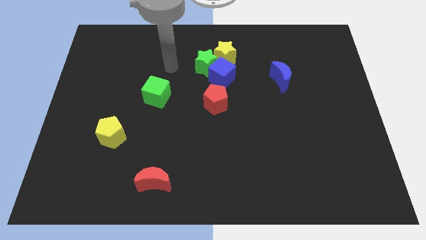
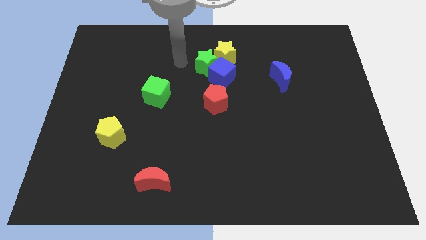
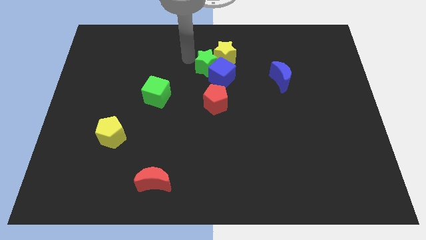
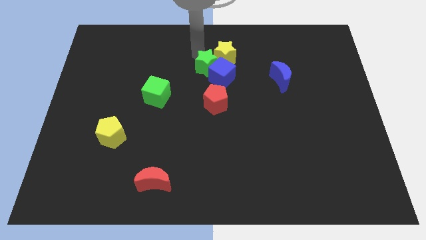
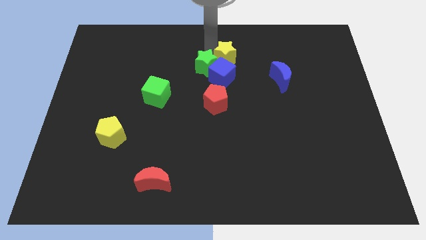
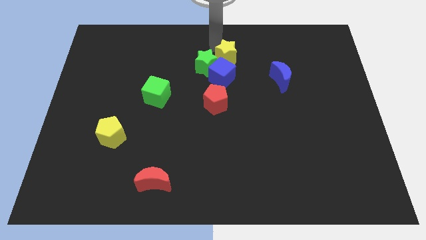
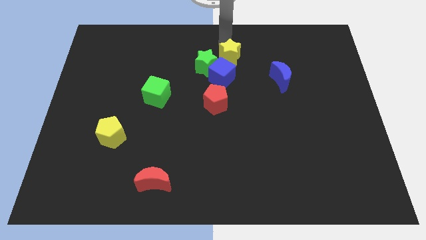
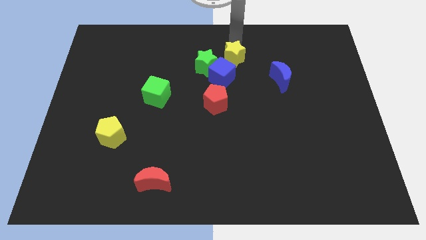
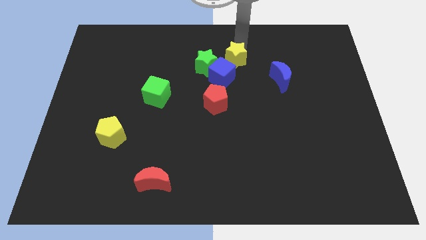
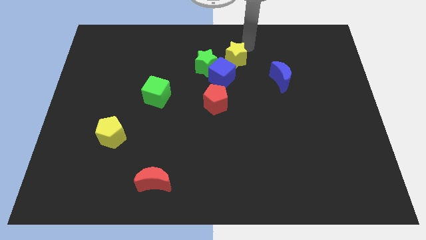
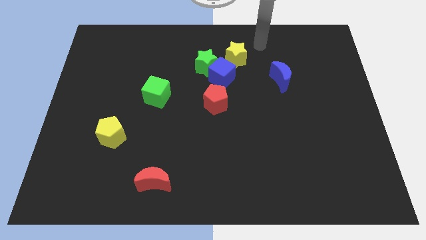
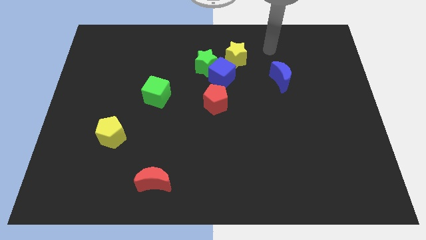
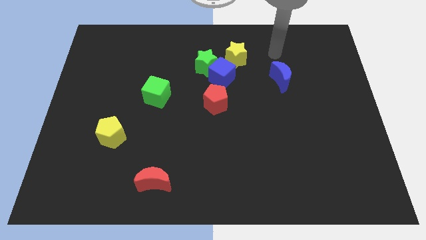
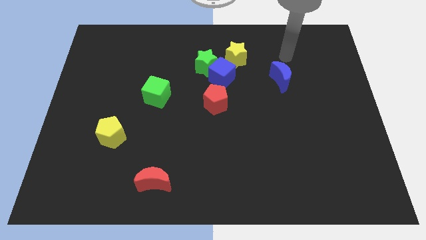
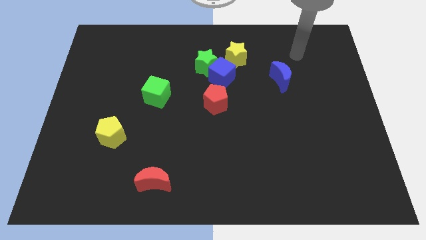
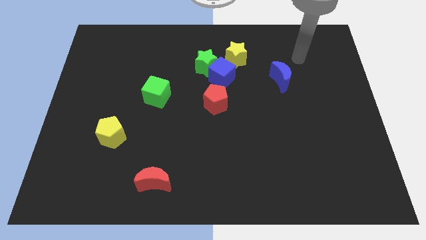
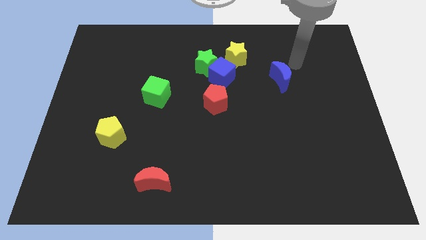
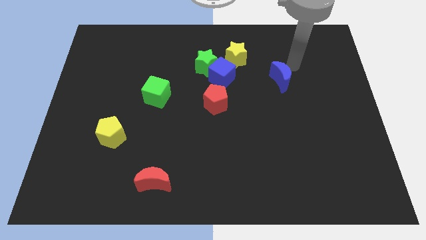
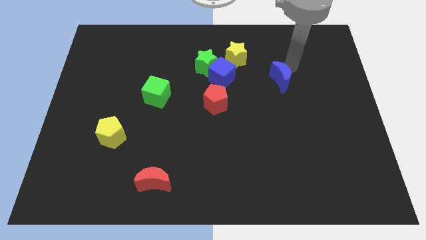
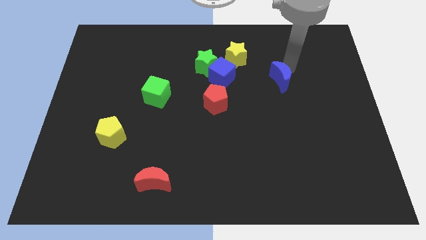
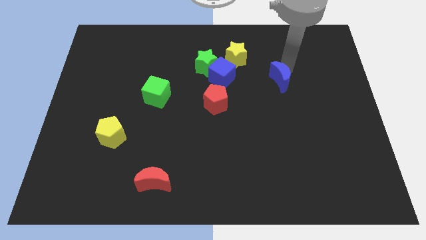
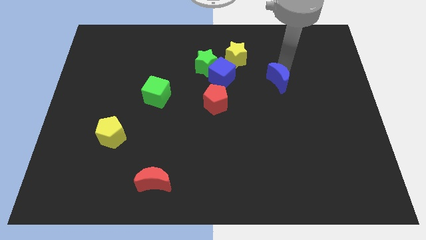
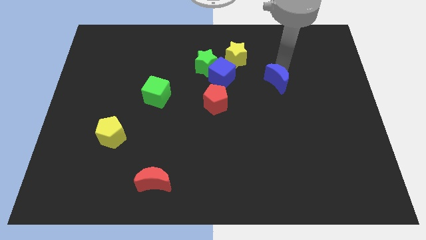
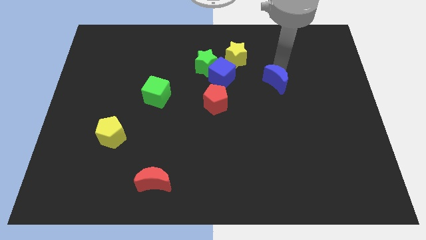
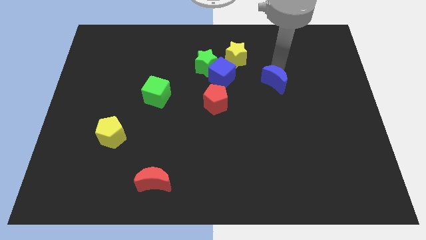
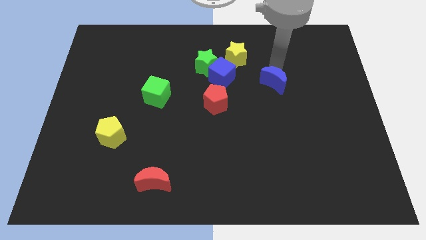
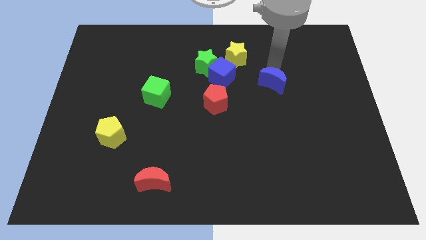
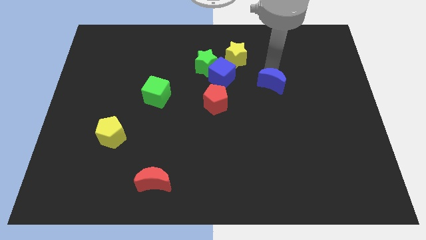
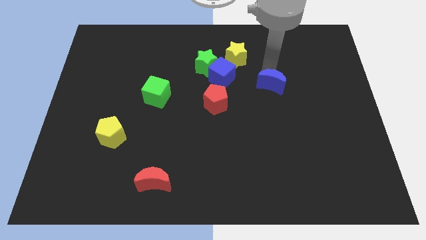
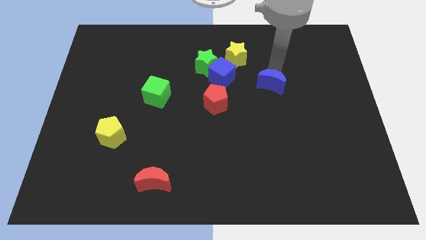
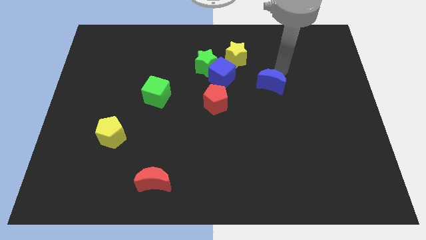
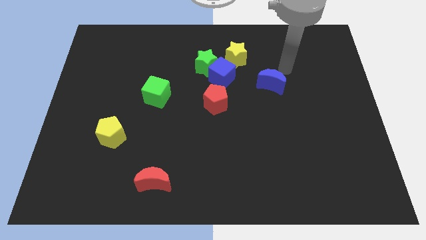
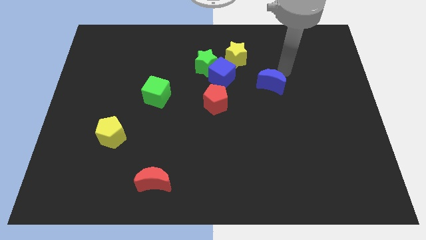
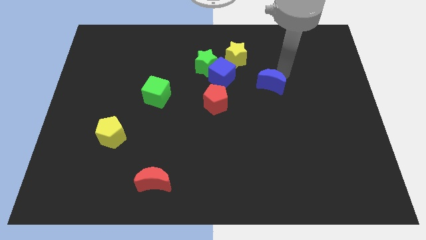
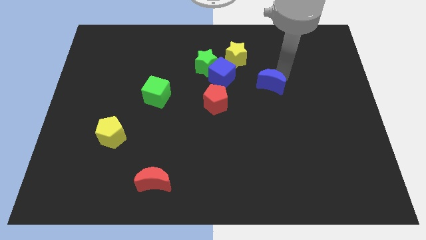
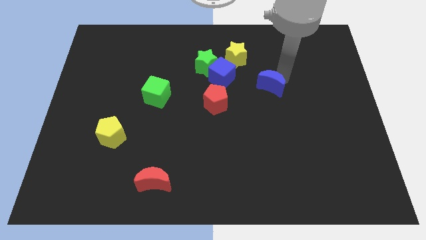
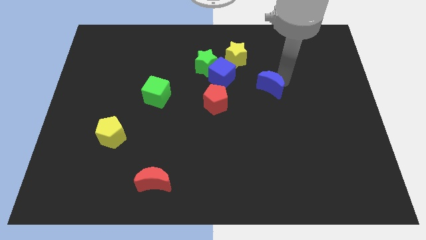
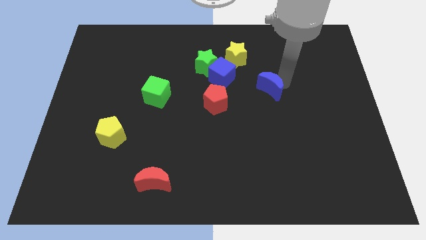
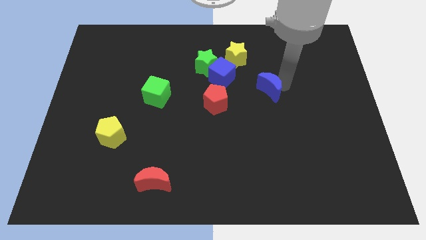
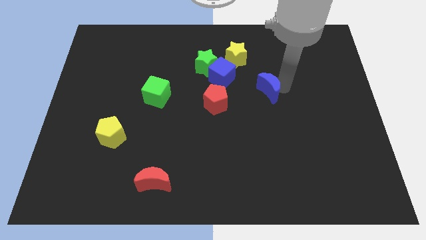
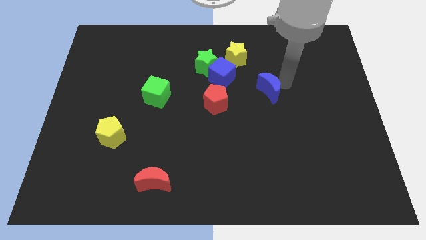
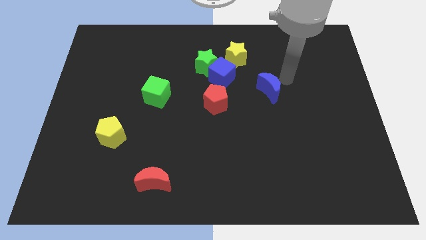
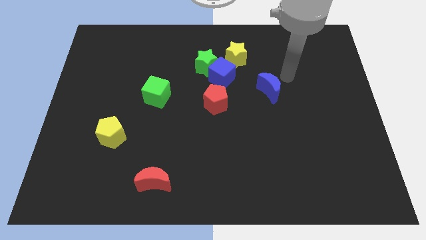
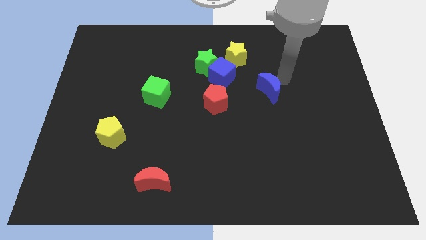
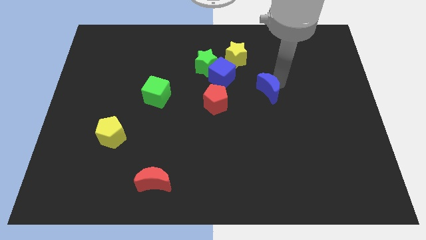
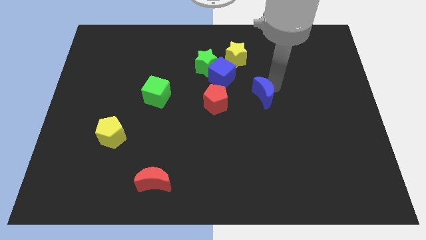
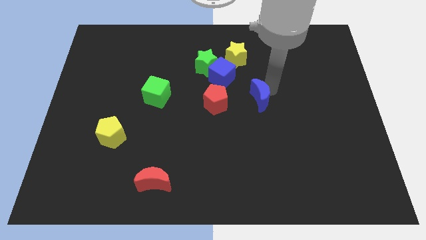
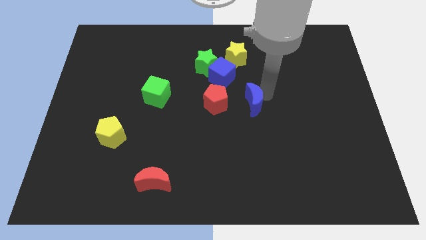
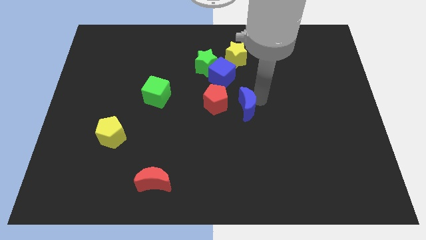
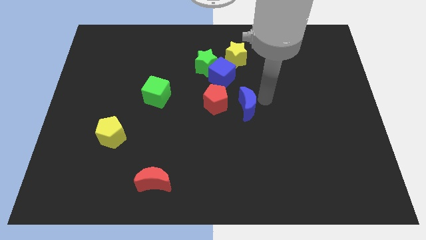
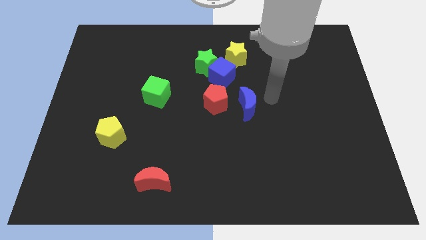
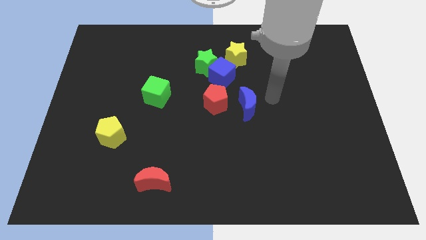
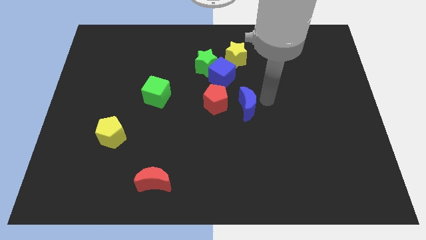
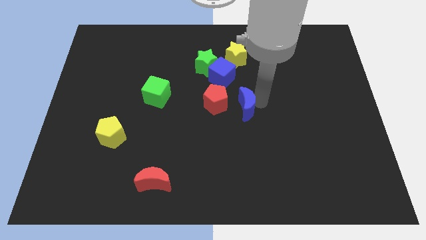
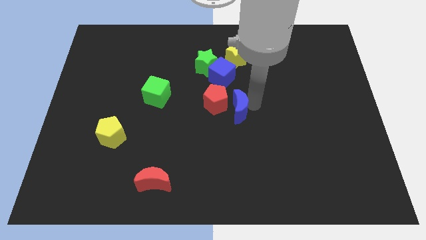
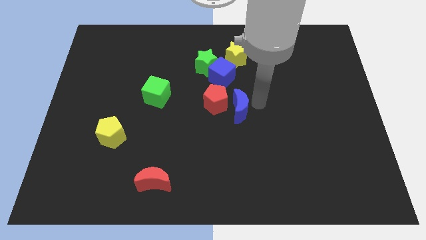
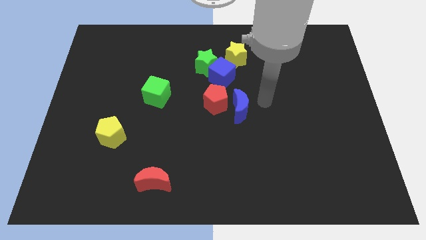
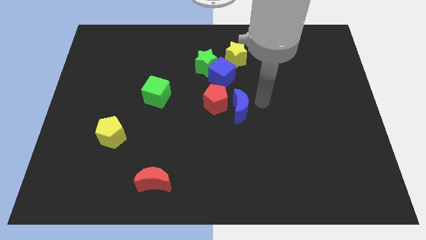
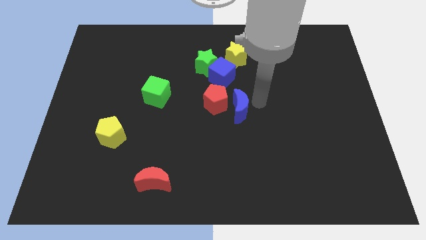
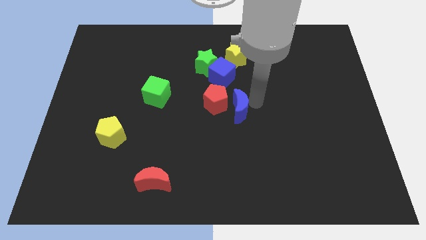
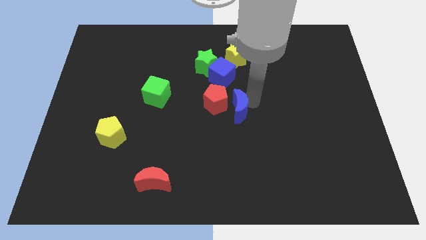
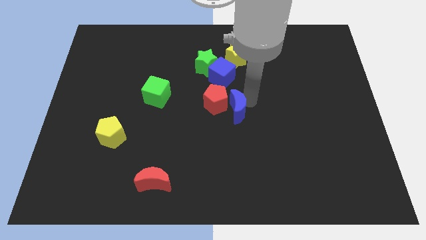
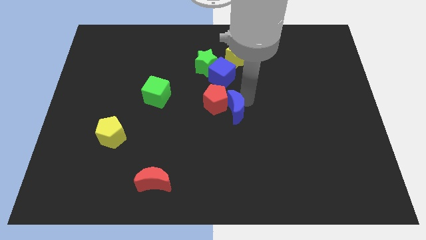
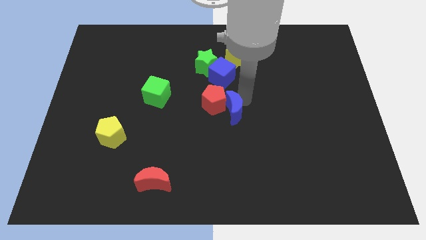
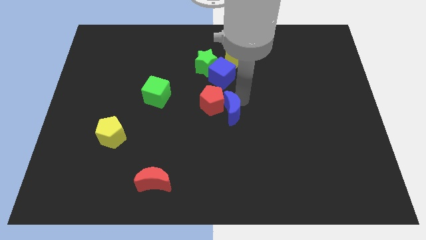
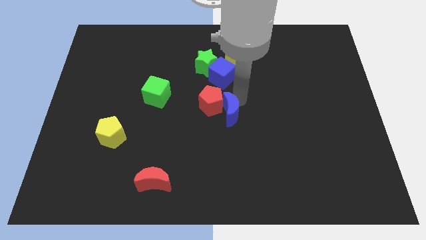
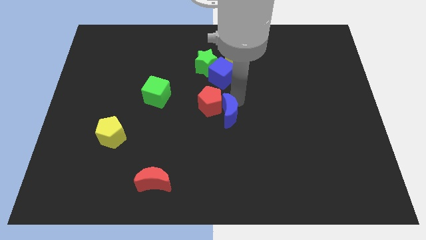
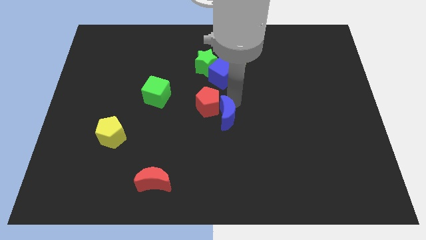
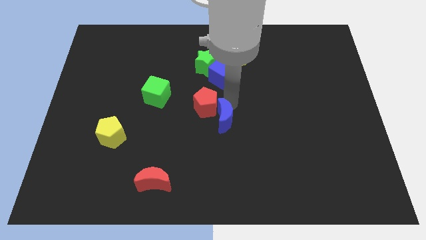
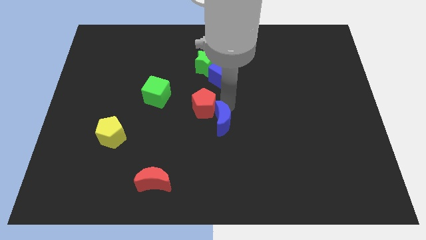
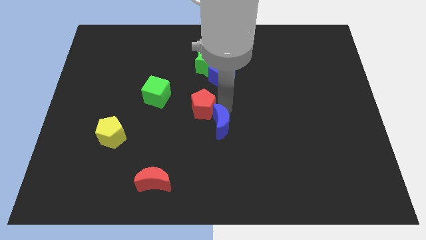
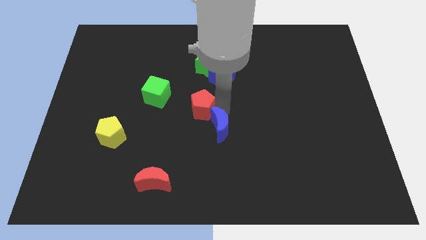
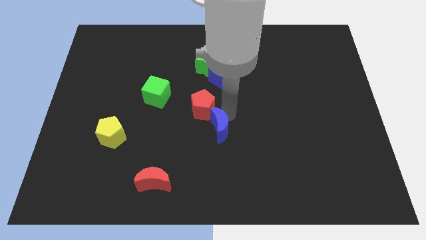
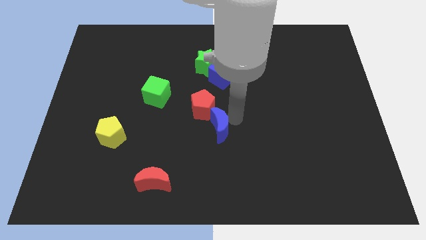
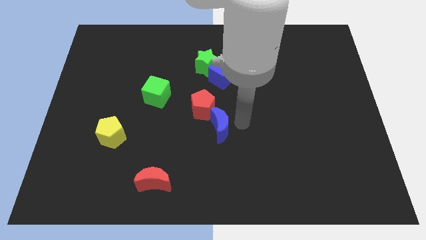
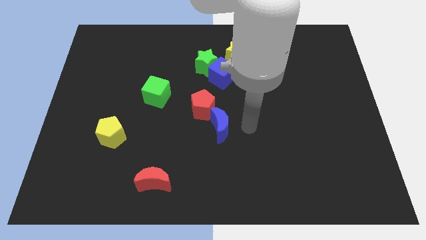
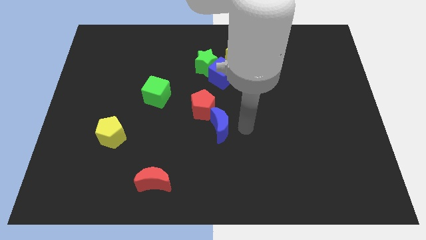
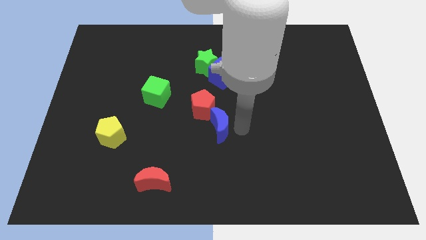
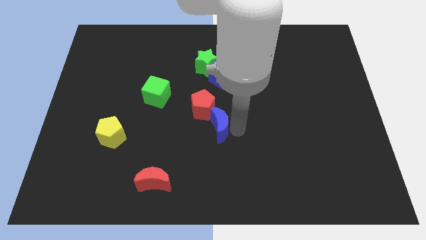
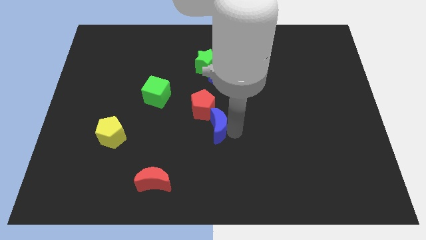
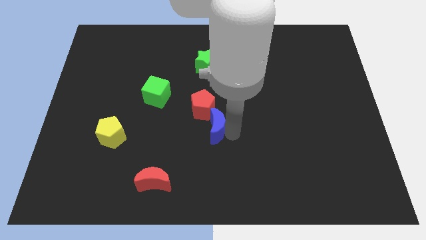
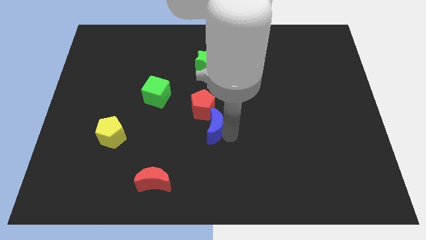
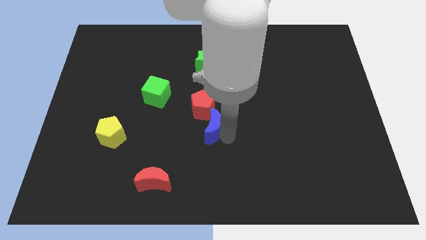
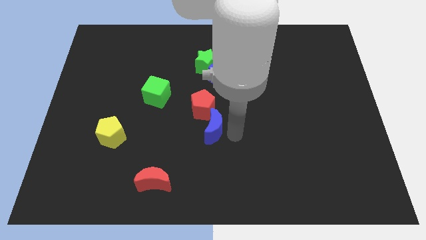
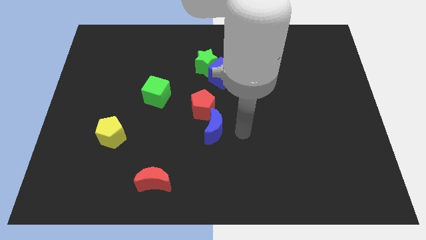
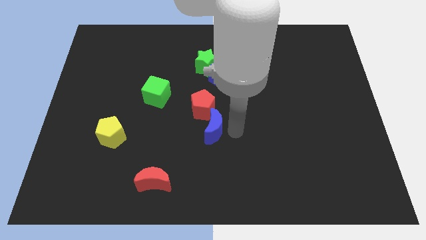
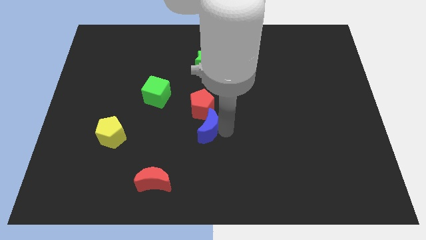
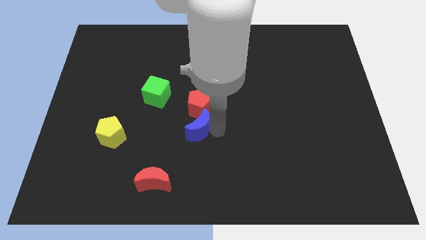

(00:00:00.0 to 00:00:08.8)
push the blue moon to the bottom left of the red pentagon
